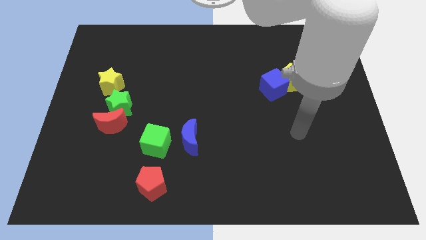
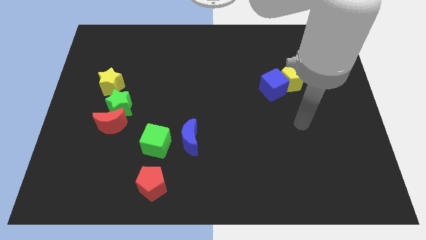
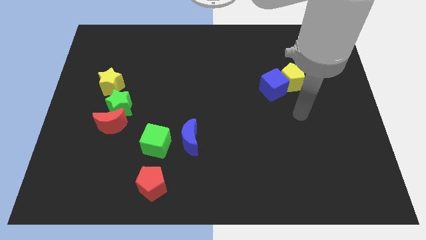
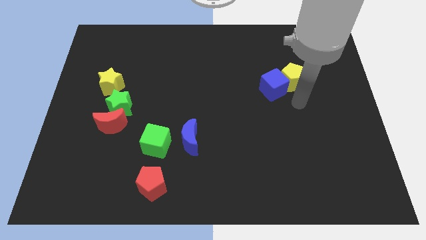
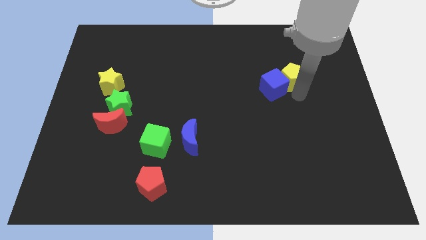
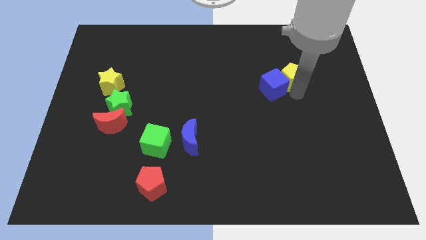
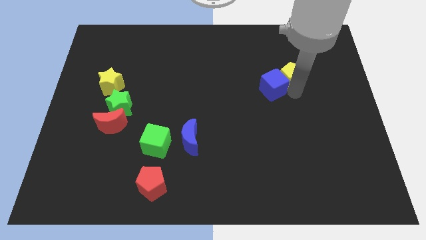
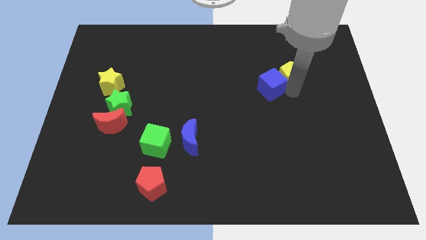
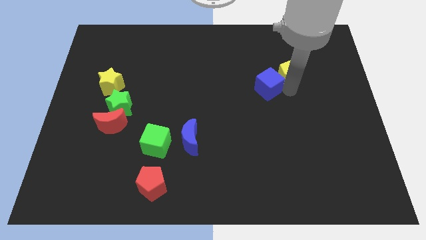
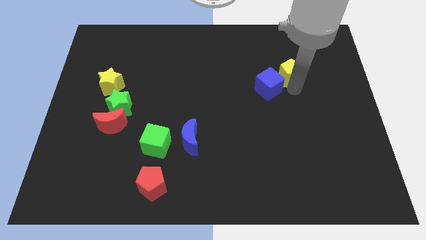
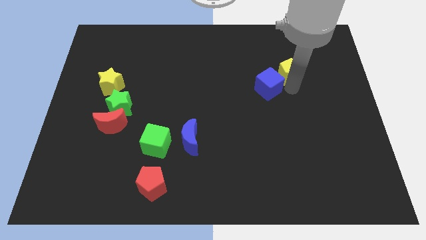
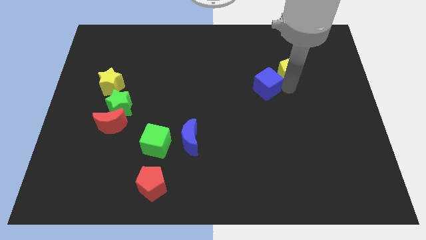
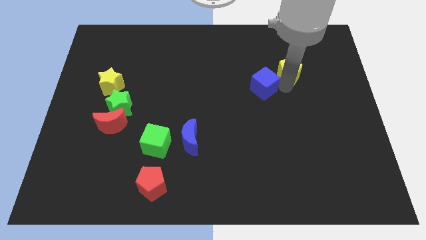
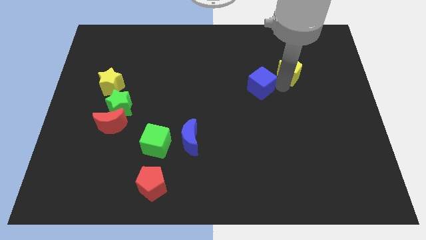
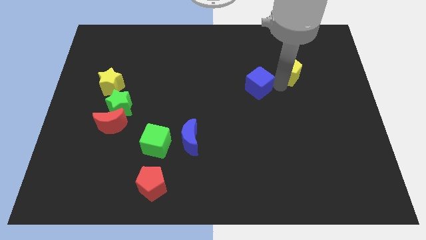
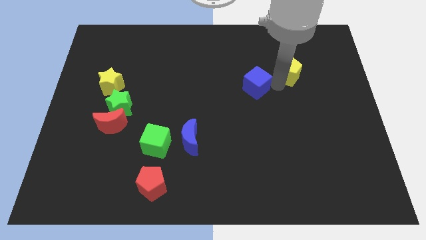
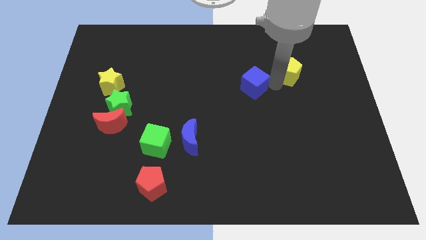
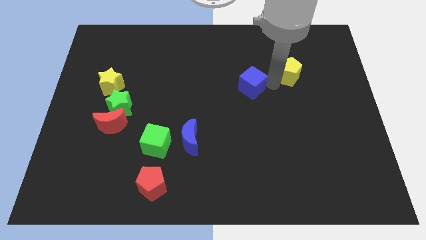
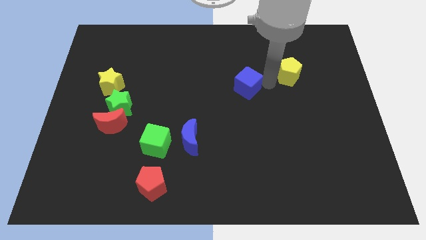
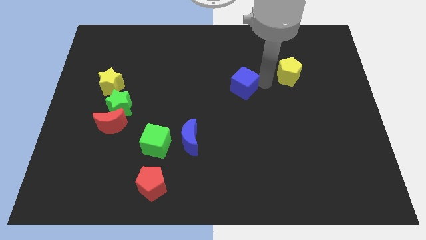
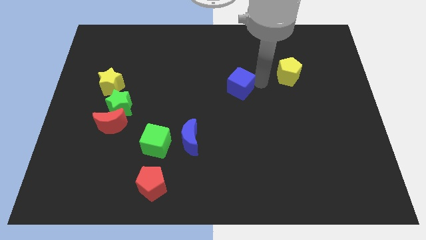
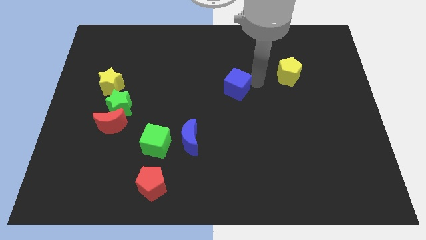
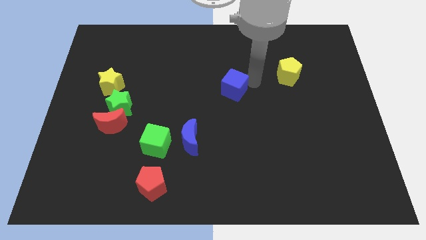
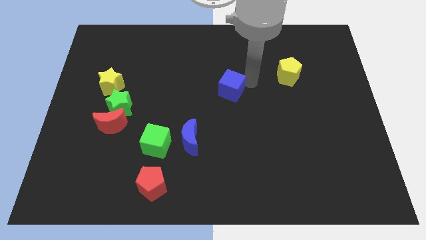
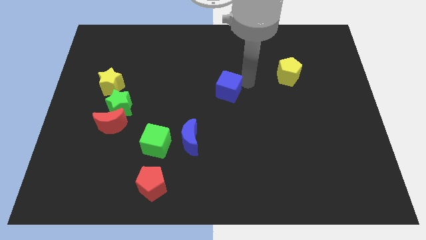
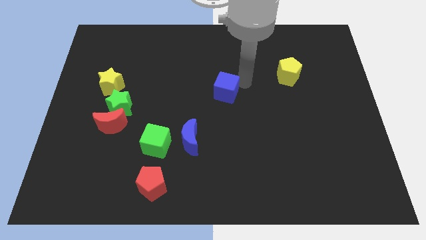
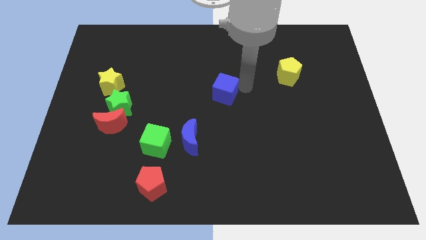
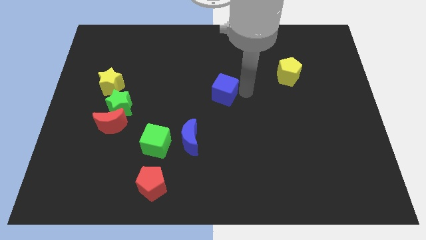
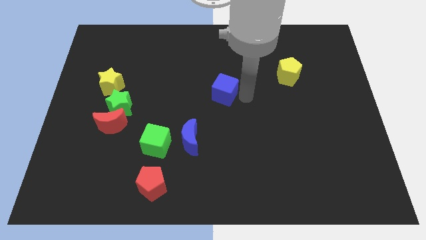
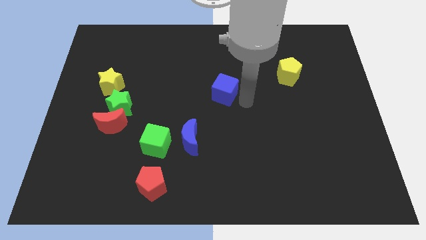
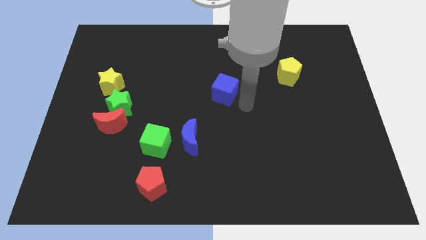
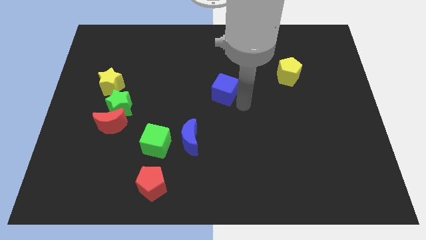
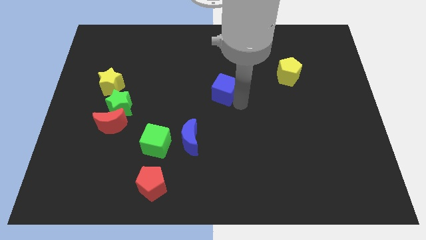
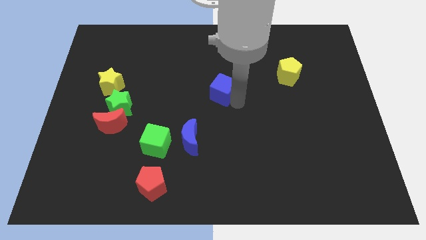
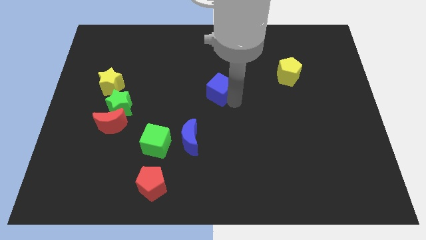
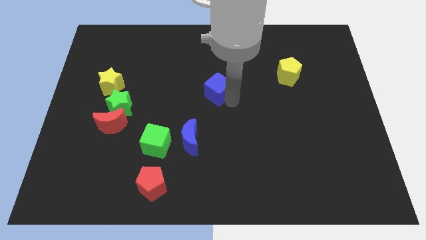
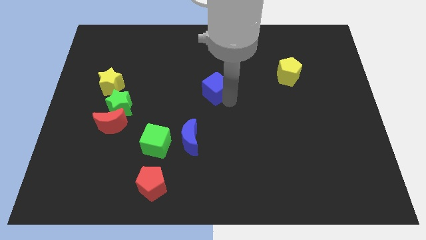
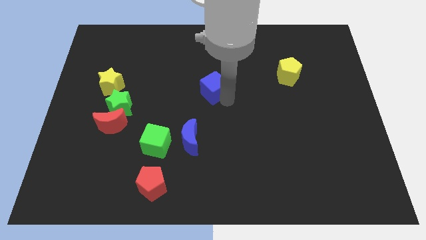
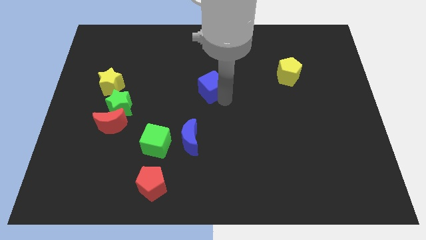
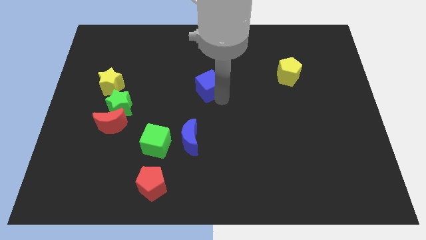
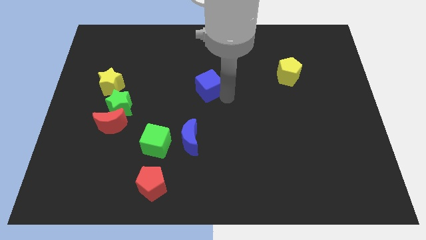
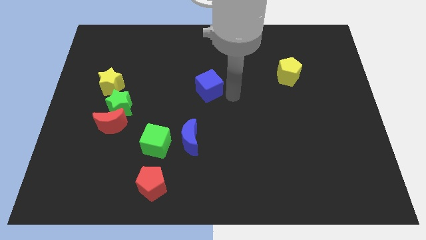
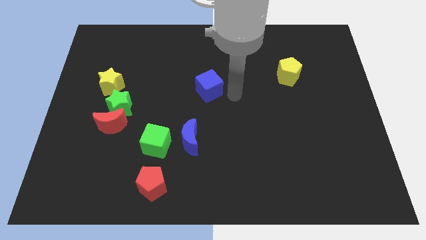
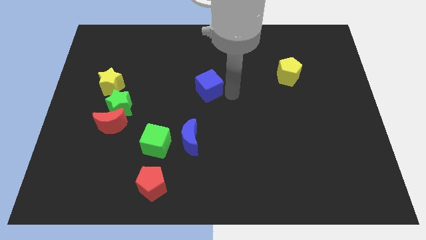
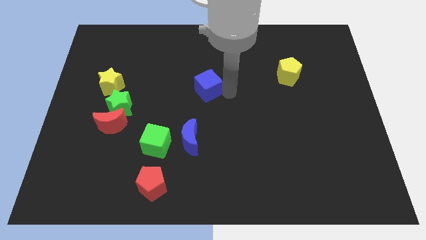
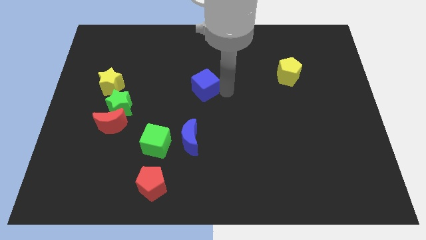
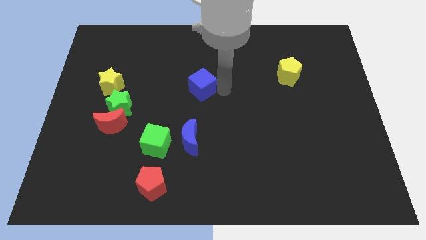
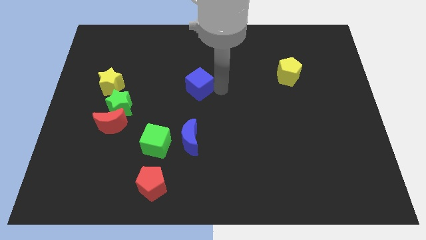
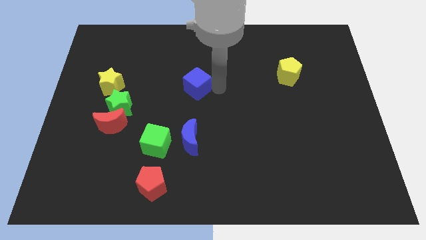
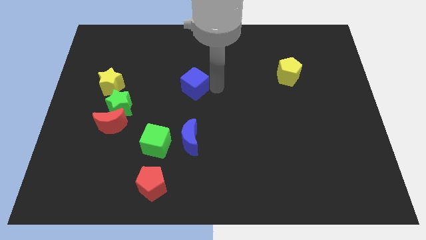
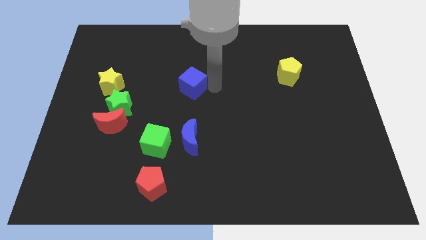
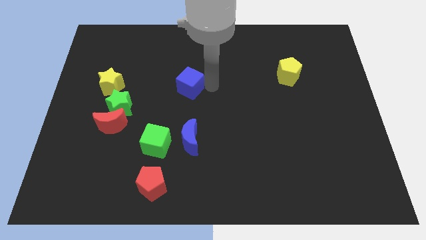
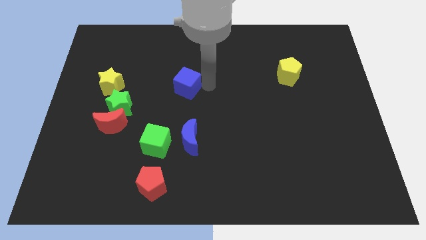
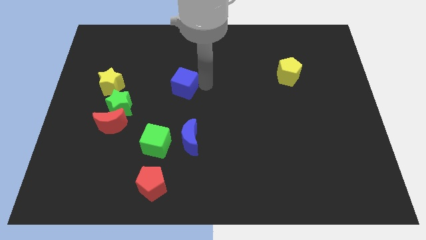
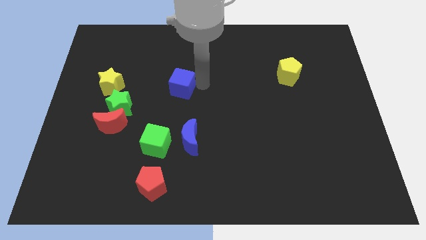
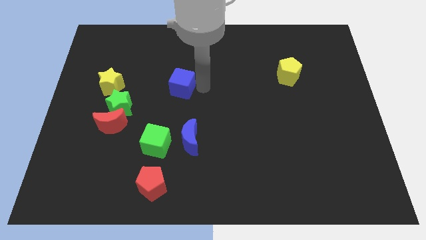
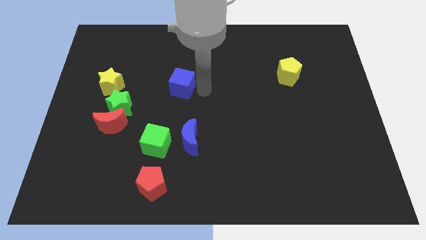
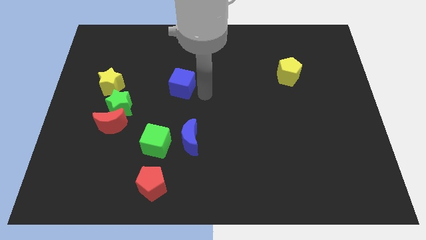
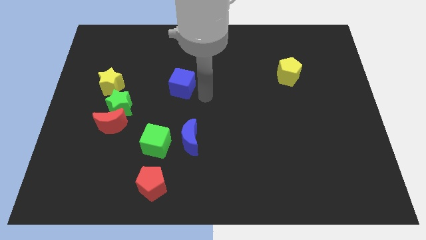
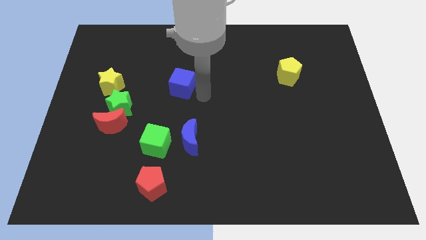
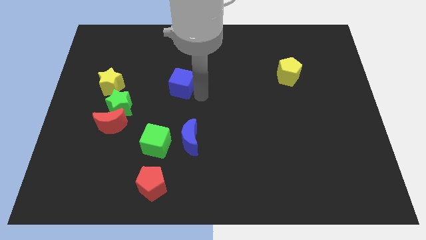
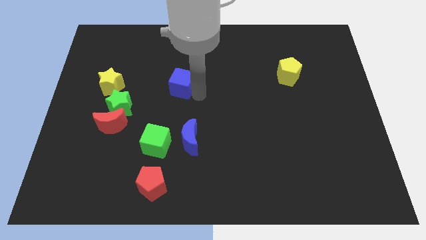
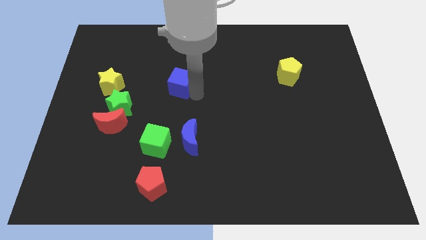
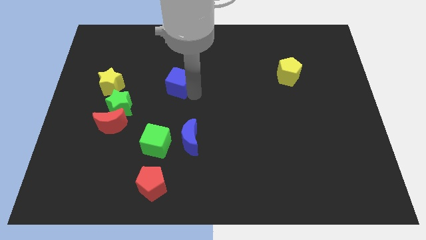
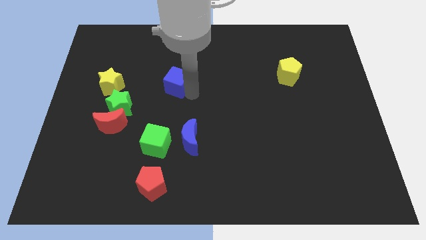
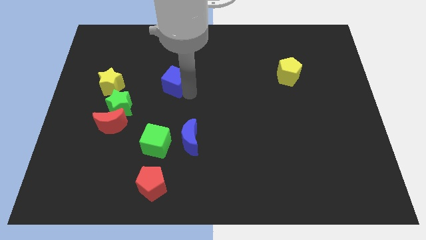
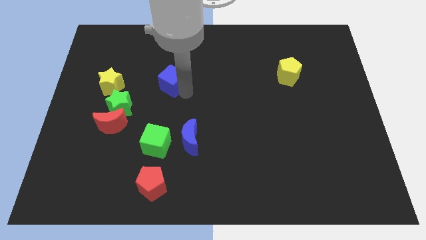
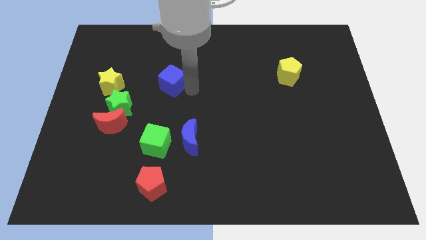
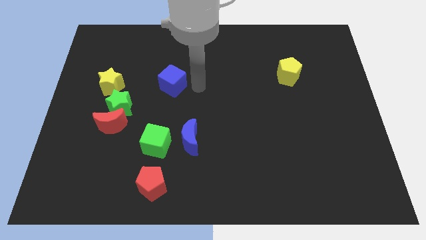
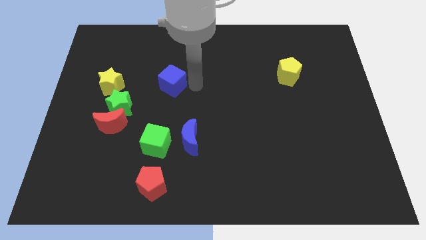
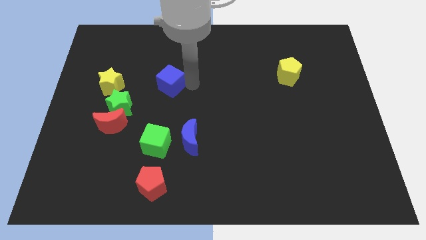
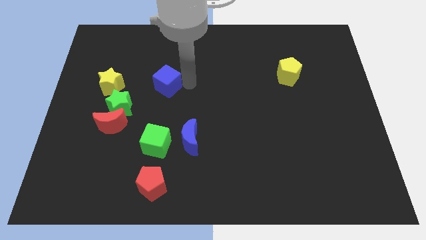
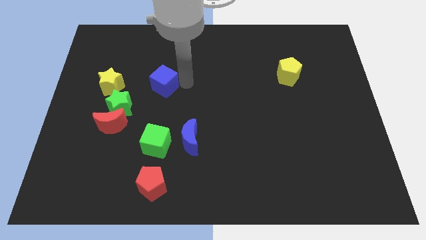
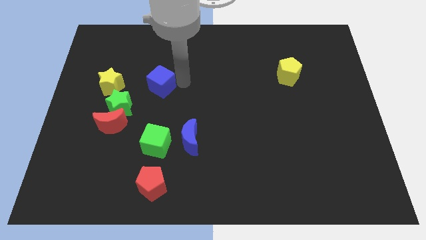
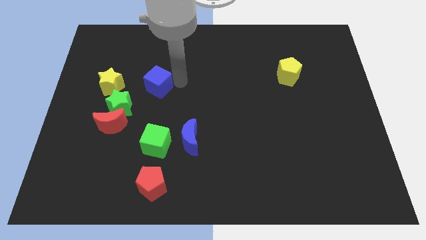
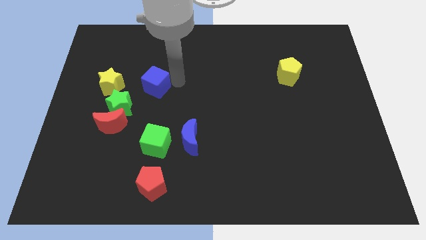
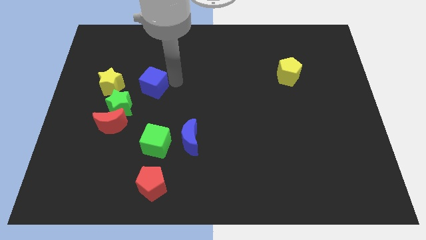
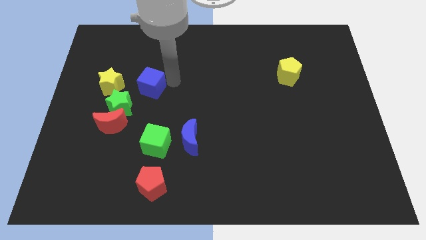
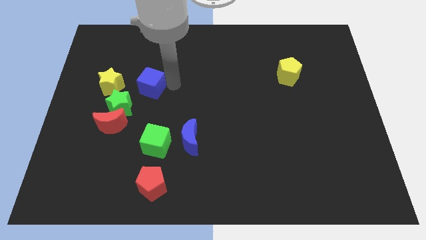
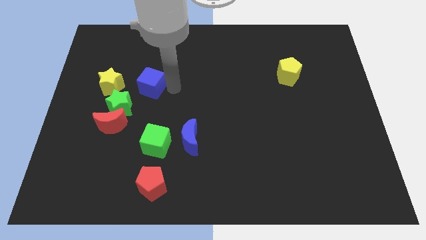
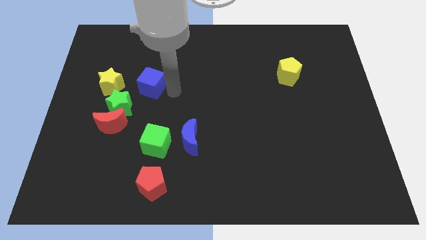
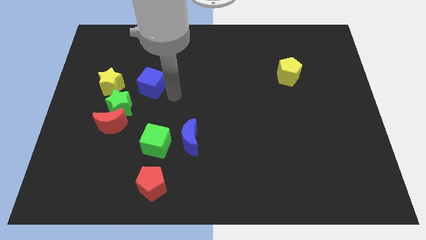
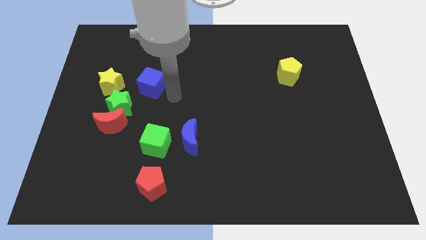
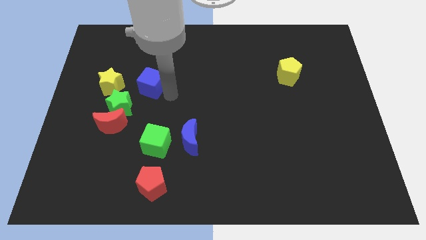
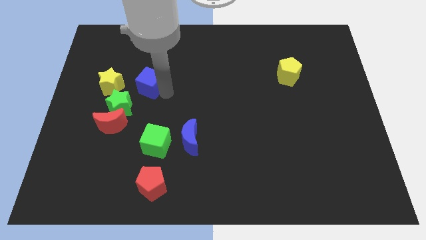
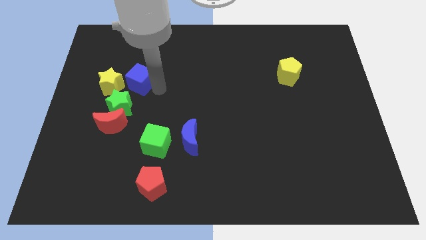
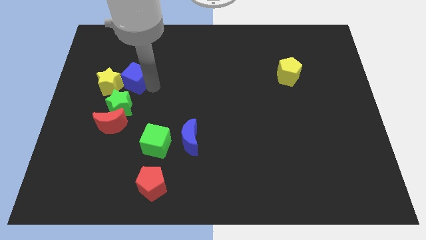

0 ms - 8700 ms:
slide the blue cube above the red moon
